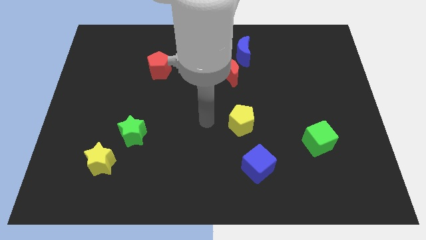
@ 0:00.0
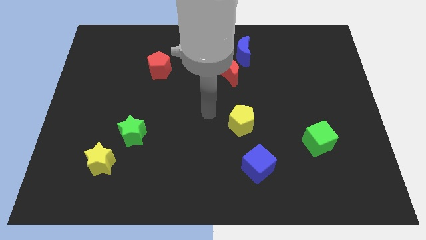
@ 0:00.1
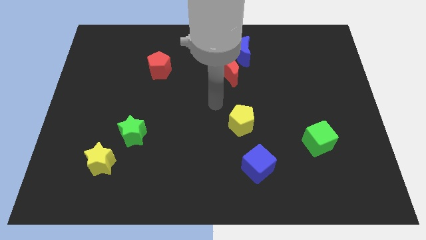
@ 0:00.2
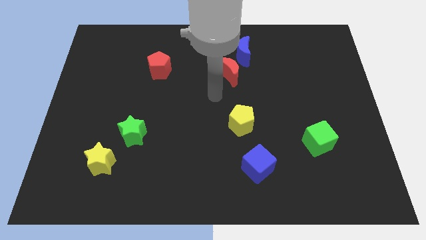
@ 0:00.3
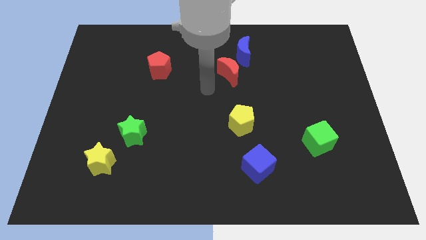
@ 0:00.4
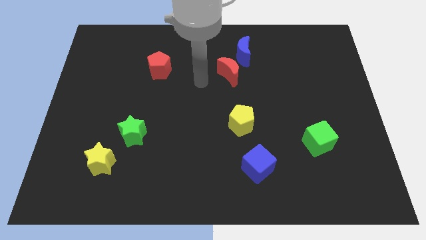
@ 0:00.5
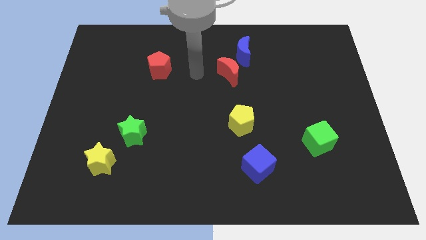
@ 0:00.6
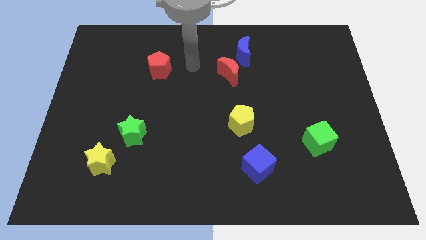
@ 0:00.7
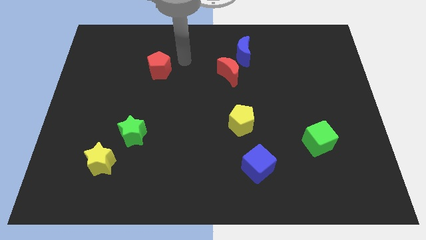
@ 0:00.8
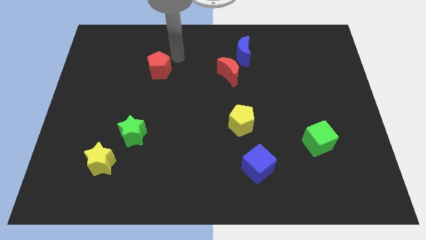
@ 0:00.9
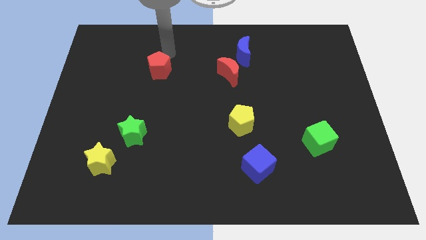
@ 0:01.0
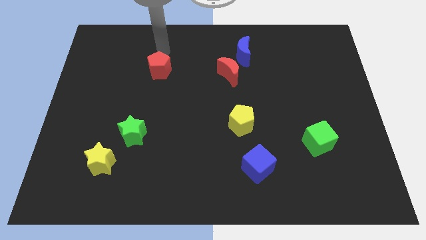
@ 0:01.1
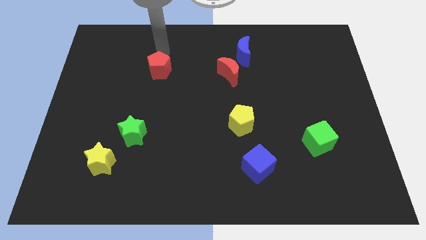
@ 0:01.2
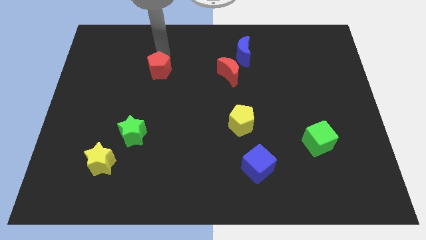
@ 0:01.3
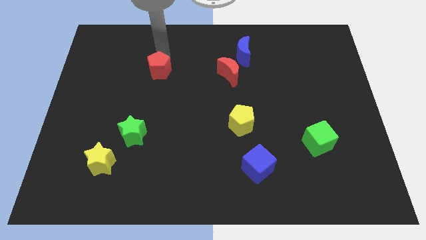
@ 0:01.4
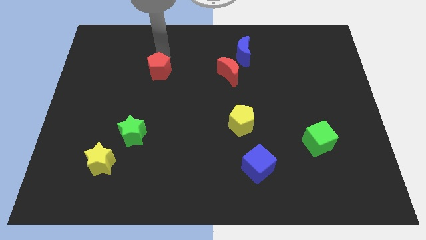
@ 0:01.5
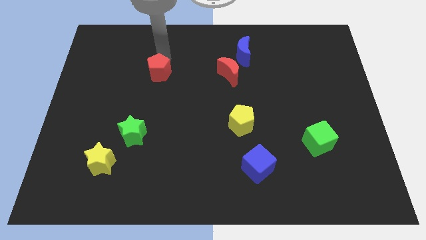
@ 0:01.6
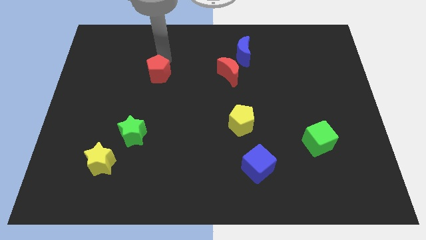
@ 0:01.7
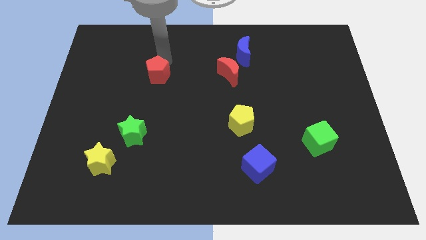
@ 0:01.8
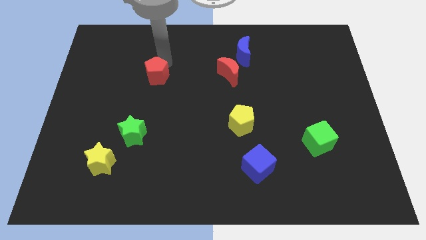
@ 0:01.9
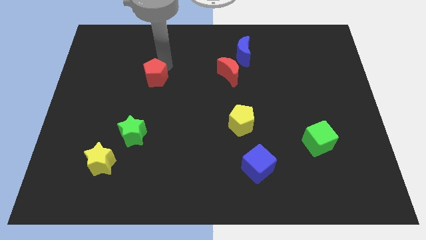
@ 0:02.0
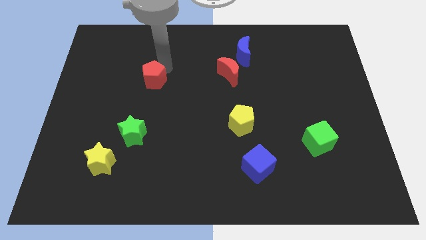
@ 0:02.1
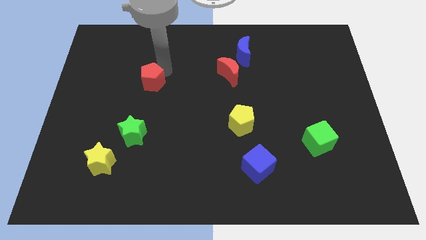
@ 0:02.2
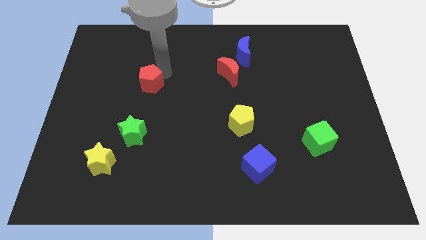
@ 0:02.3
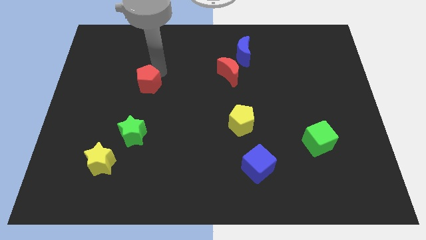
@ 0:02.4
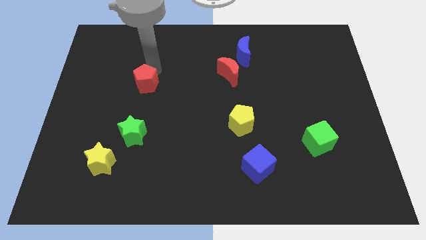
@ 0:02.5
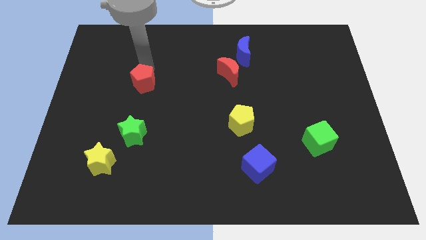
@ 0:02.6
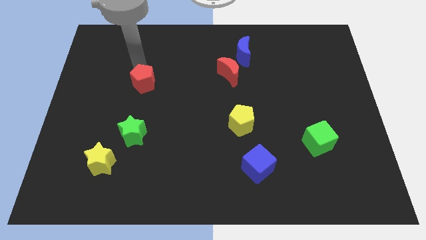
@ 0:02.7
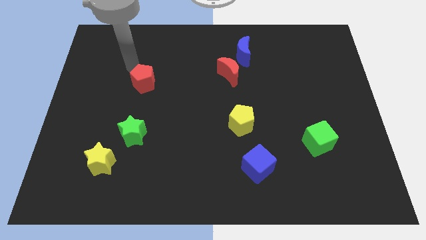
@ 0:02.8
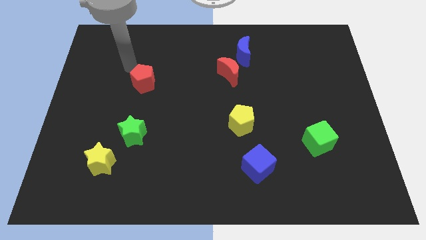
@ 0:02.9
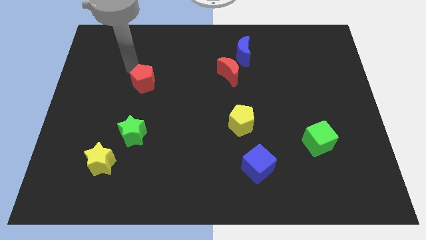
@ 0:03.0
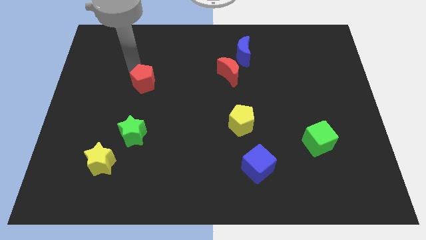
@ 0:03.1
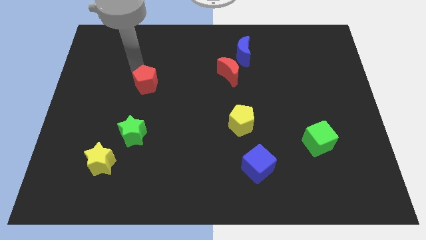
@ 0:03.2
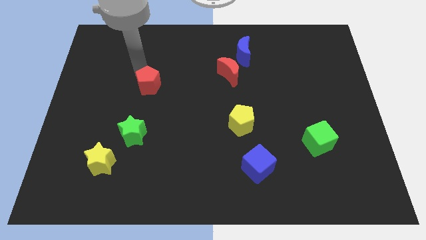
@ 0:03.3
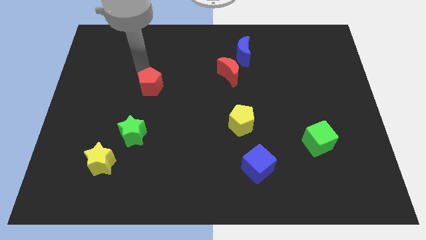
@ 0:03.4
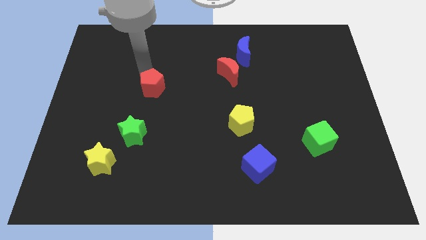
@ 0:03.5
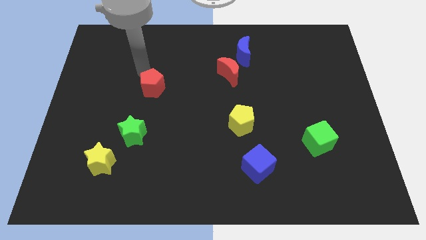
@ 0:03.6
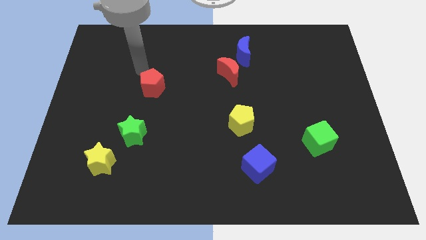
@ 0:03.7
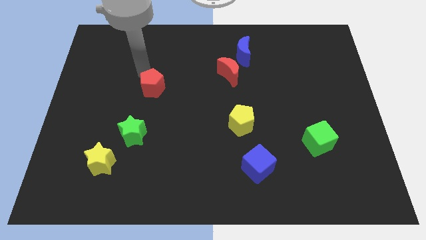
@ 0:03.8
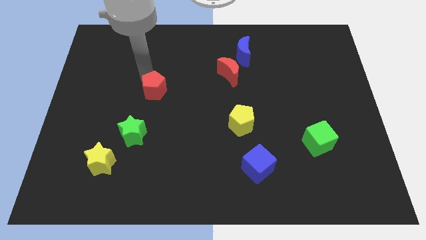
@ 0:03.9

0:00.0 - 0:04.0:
move the red pentagon slightly downwards

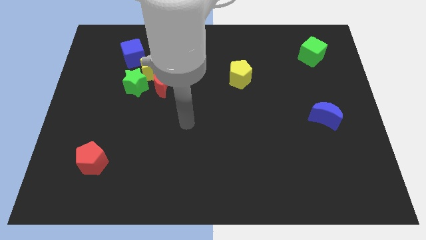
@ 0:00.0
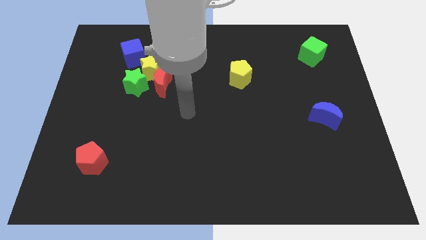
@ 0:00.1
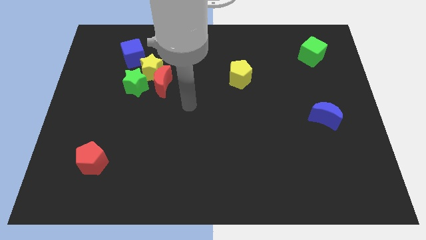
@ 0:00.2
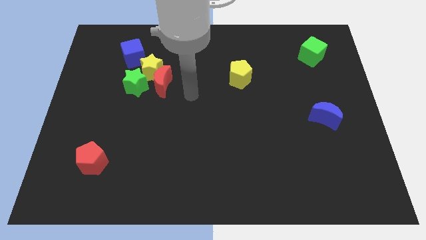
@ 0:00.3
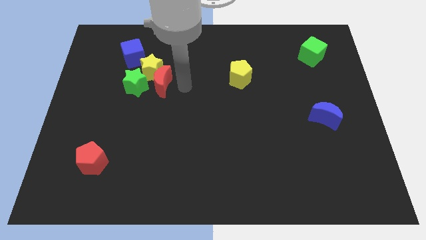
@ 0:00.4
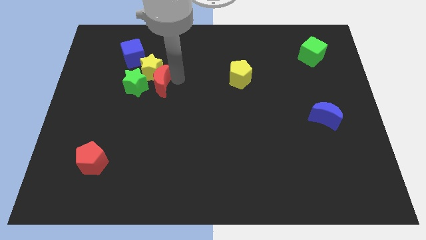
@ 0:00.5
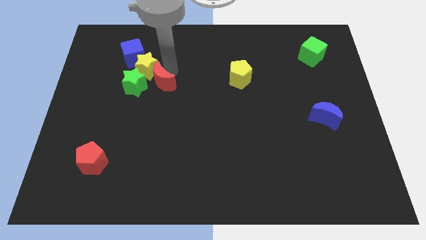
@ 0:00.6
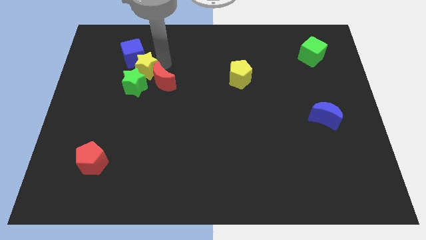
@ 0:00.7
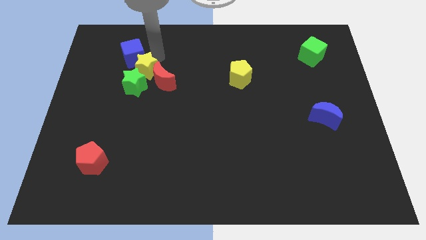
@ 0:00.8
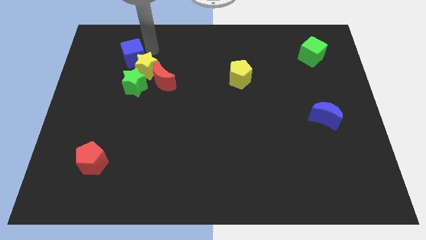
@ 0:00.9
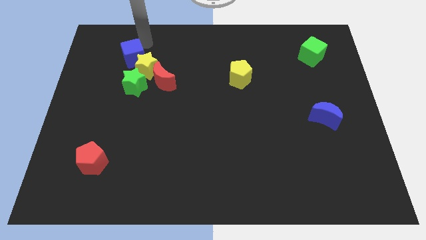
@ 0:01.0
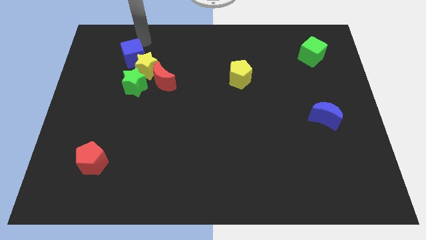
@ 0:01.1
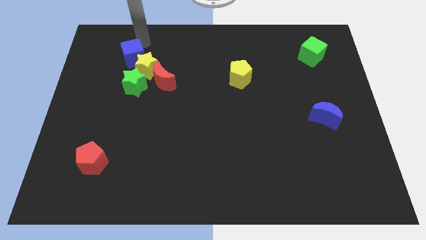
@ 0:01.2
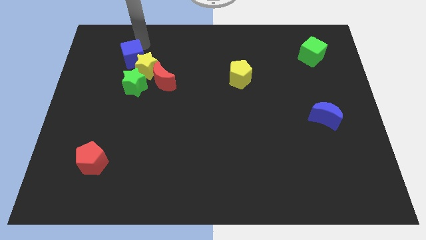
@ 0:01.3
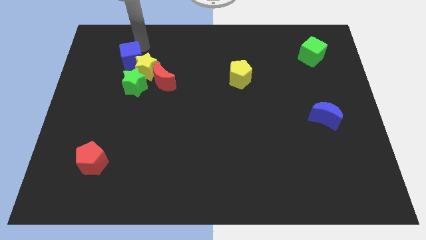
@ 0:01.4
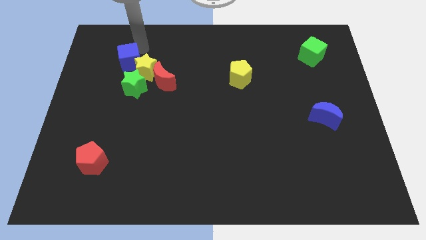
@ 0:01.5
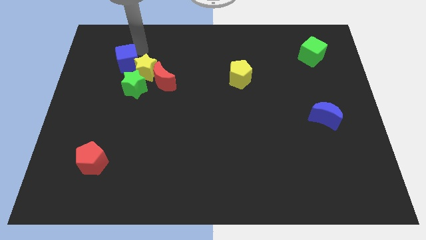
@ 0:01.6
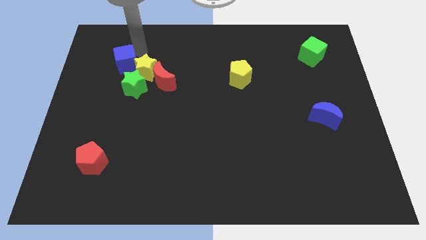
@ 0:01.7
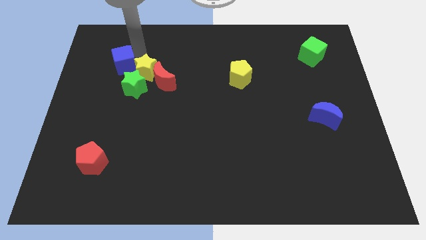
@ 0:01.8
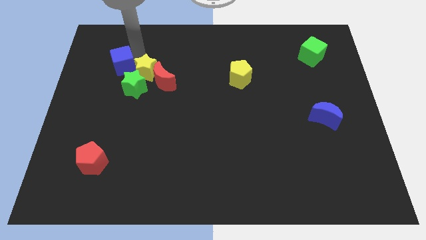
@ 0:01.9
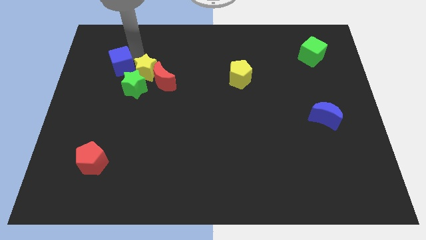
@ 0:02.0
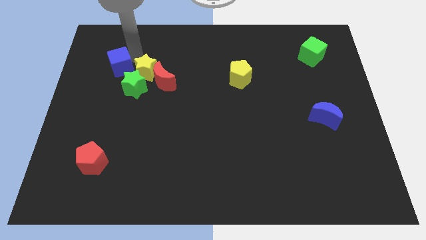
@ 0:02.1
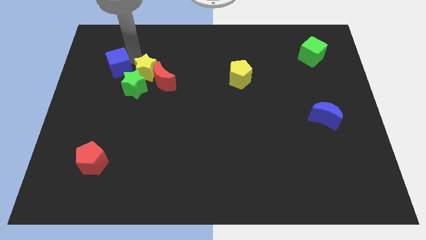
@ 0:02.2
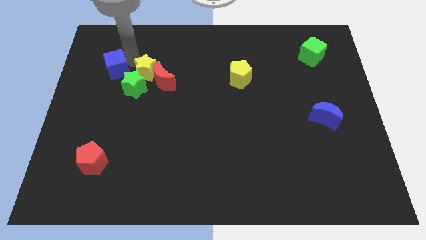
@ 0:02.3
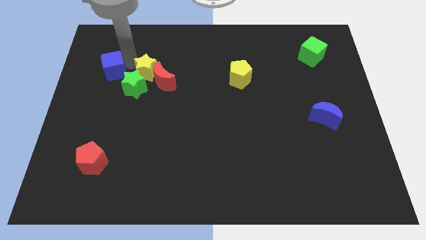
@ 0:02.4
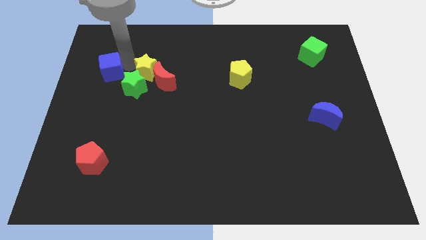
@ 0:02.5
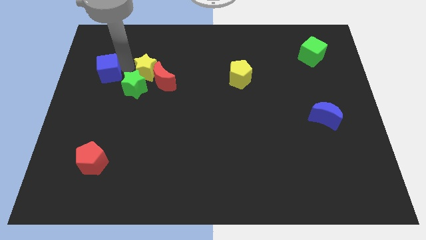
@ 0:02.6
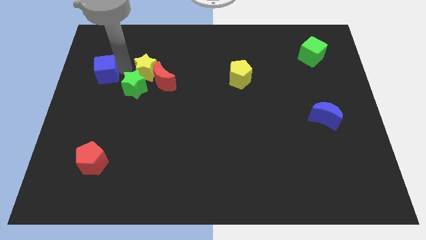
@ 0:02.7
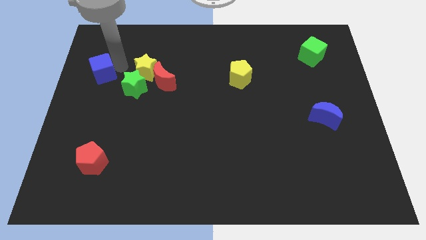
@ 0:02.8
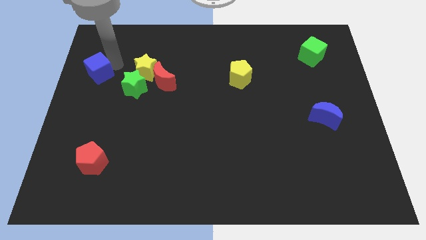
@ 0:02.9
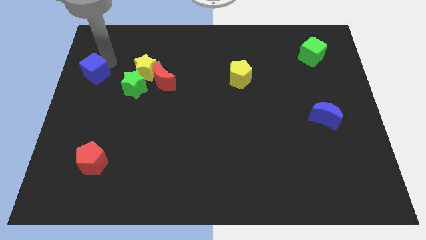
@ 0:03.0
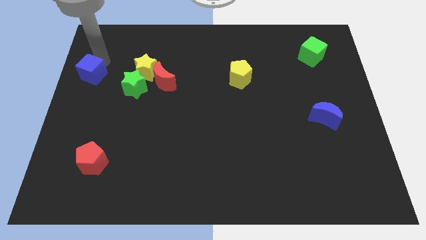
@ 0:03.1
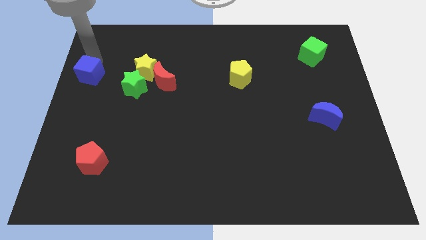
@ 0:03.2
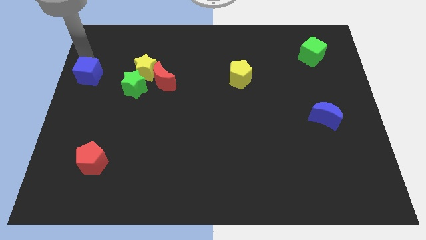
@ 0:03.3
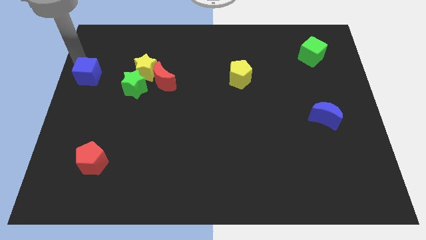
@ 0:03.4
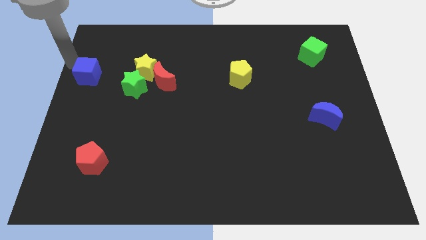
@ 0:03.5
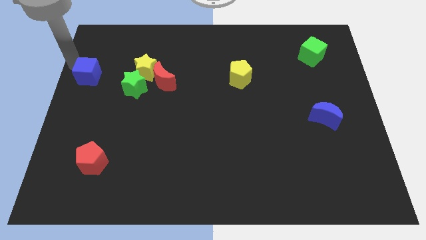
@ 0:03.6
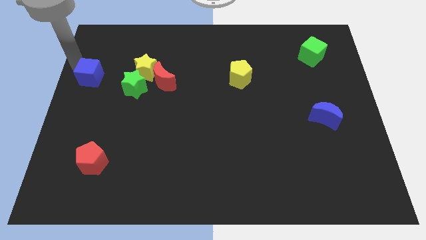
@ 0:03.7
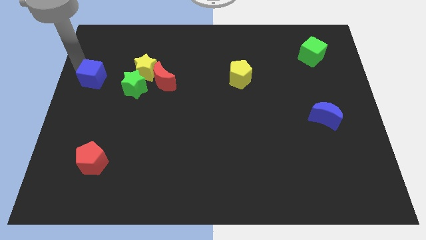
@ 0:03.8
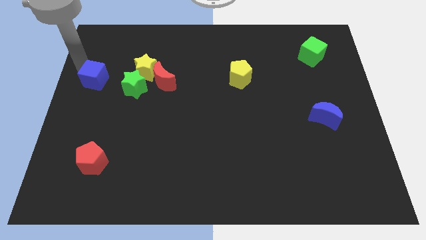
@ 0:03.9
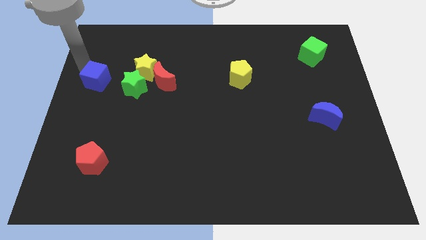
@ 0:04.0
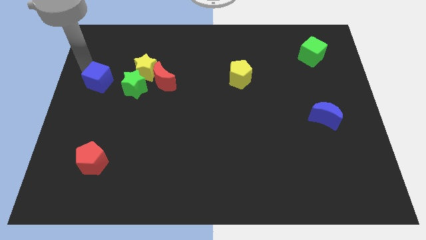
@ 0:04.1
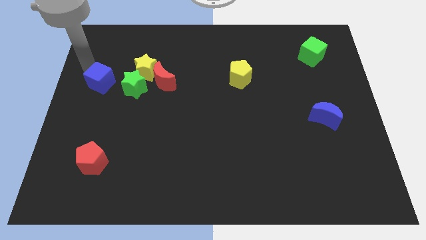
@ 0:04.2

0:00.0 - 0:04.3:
move the blue cube a little downwards
